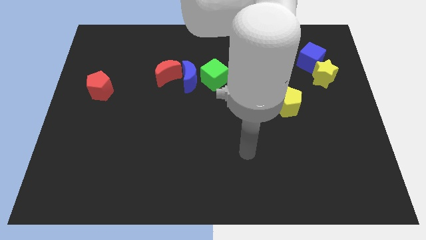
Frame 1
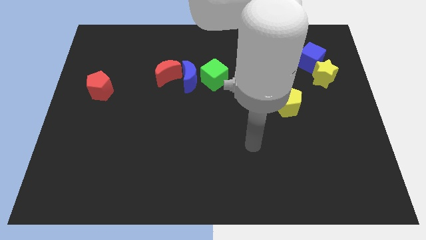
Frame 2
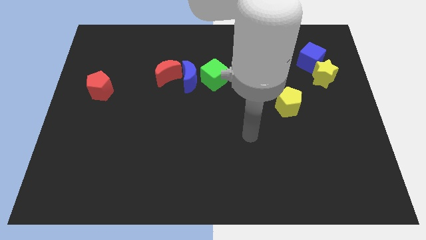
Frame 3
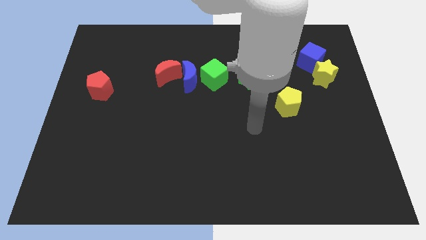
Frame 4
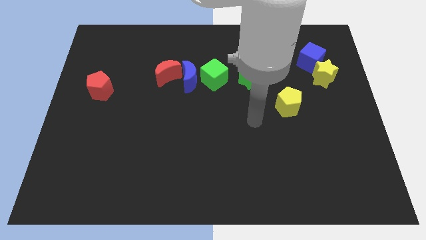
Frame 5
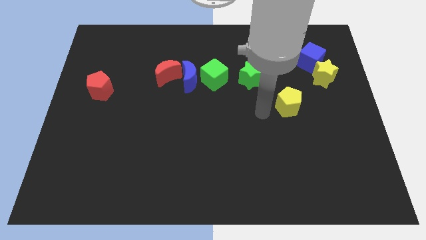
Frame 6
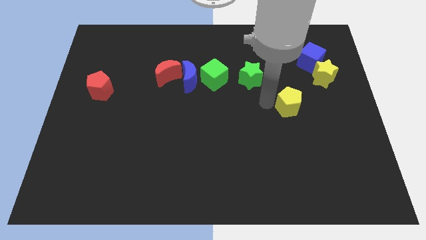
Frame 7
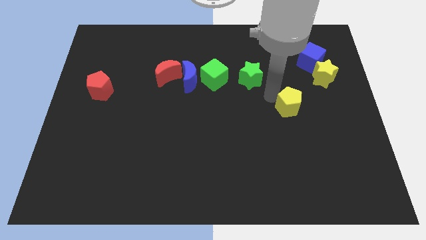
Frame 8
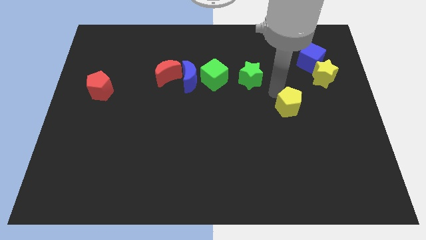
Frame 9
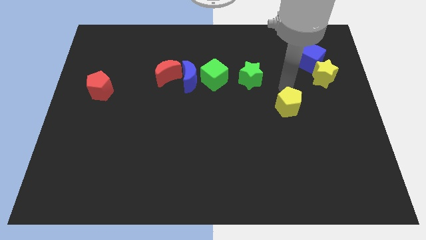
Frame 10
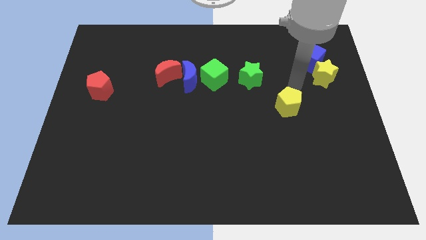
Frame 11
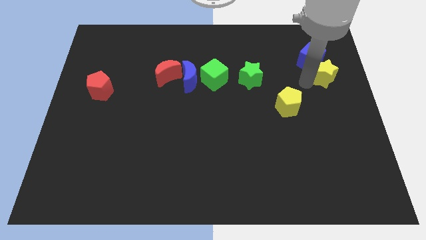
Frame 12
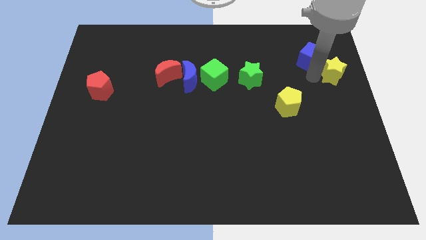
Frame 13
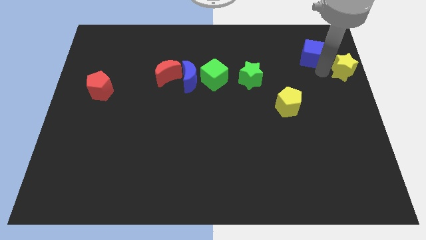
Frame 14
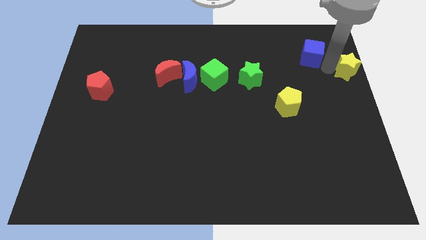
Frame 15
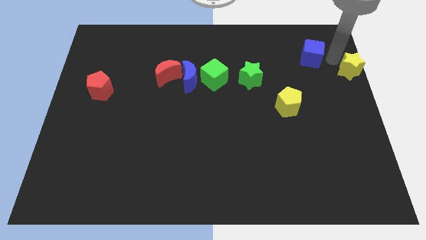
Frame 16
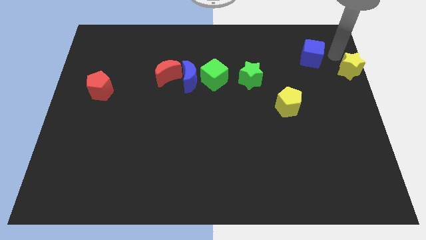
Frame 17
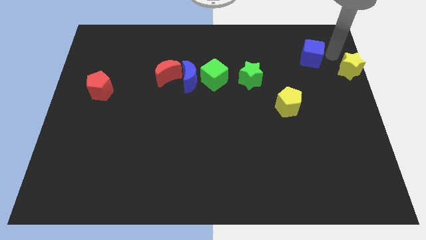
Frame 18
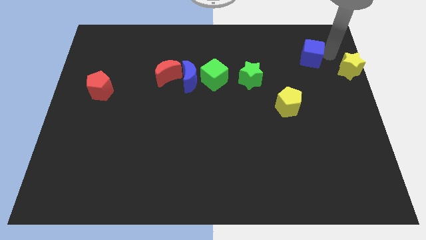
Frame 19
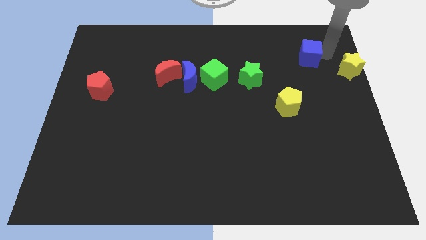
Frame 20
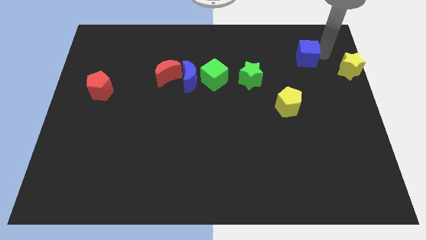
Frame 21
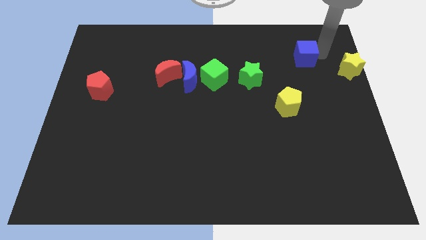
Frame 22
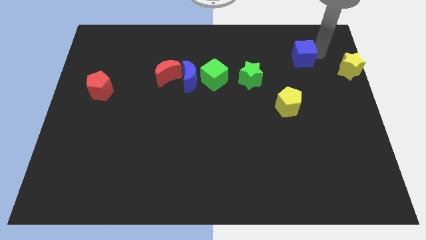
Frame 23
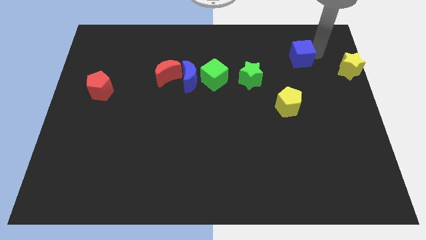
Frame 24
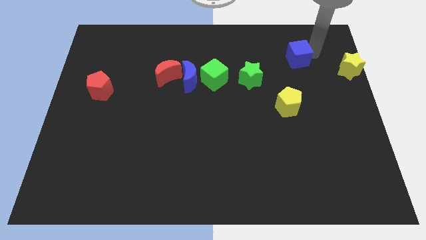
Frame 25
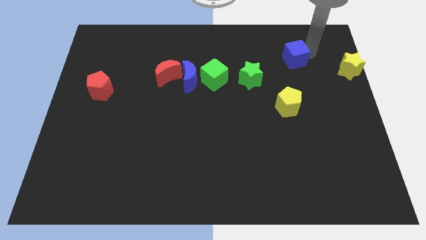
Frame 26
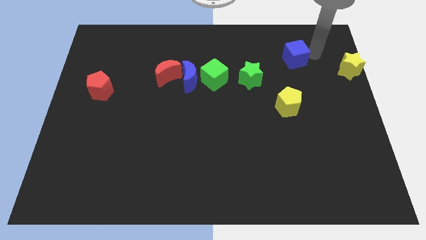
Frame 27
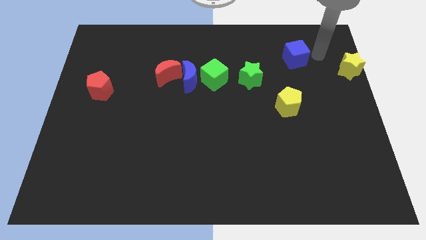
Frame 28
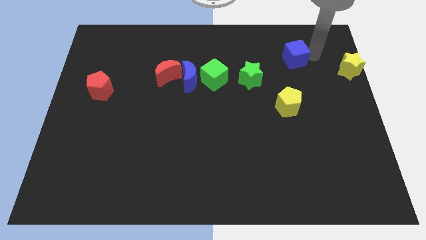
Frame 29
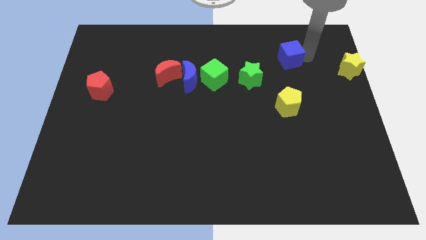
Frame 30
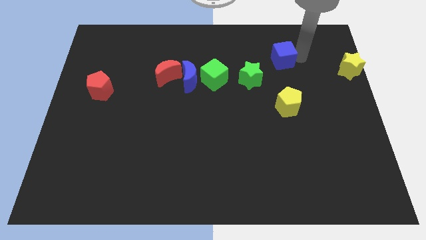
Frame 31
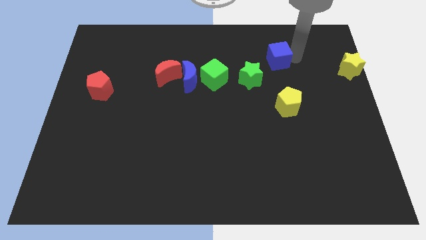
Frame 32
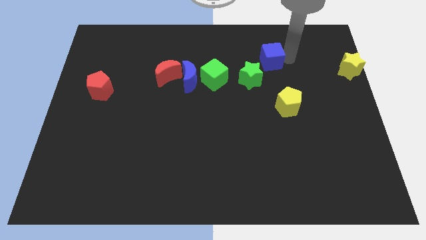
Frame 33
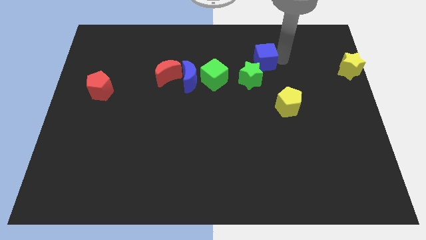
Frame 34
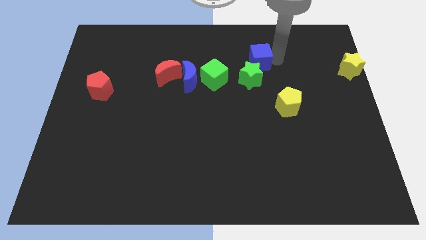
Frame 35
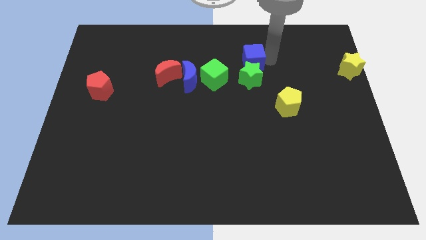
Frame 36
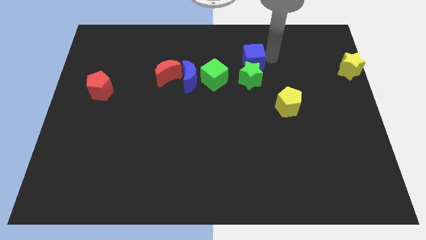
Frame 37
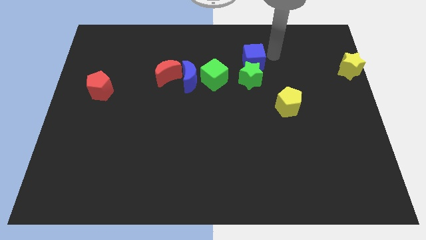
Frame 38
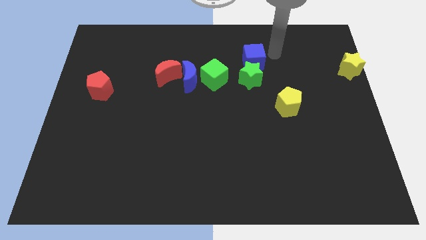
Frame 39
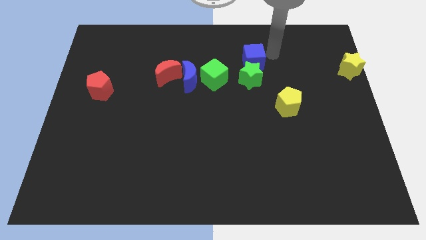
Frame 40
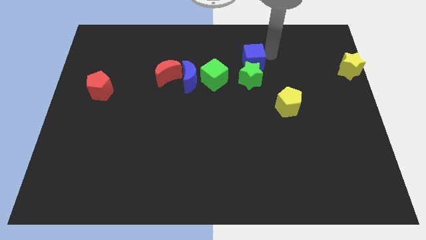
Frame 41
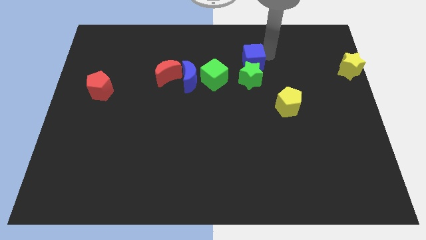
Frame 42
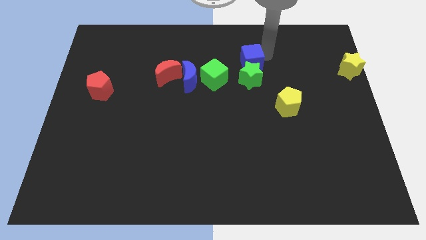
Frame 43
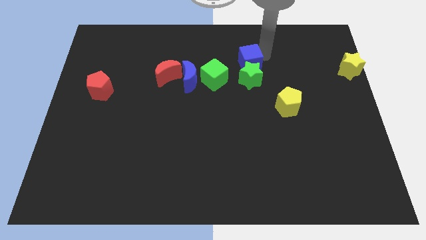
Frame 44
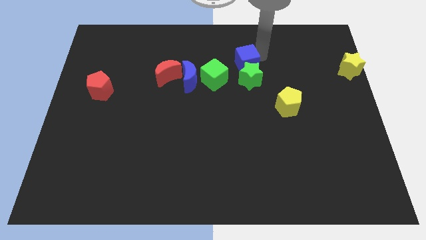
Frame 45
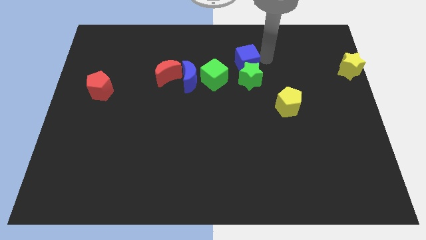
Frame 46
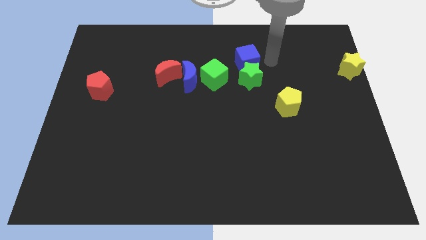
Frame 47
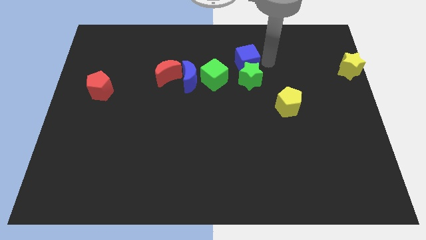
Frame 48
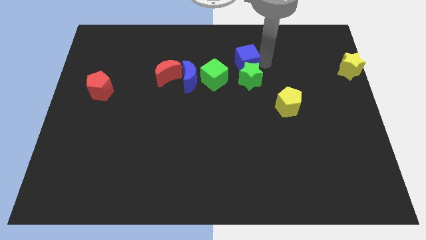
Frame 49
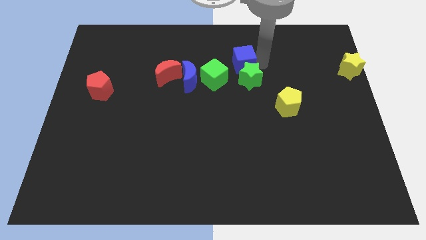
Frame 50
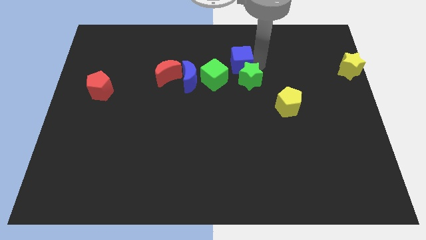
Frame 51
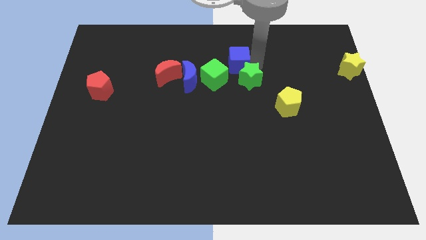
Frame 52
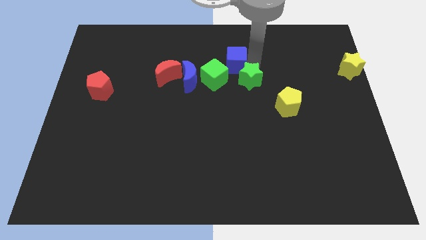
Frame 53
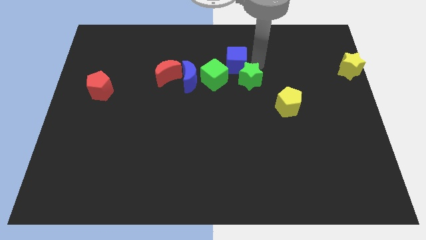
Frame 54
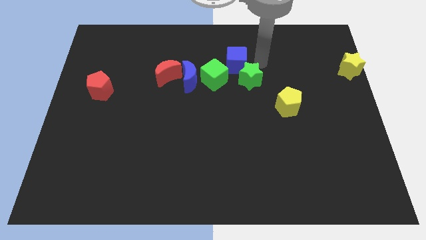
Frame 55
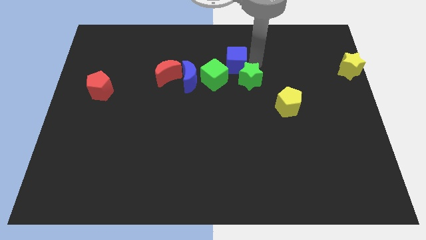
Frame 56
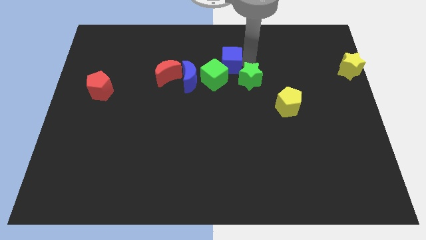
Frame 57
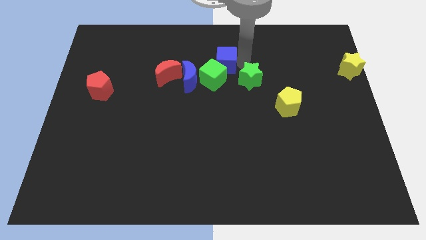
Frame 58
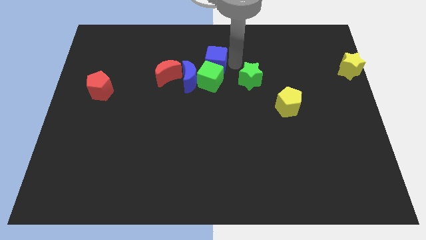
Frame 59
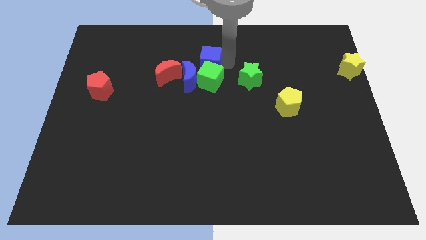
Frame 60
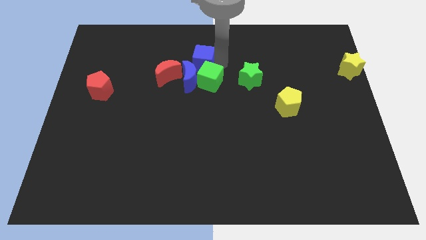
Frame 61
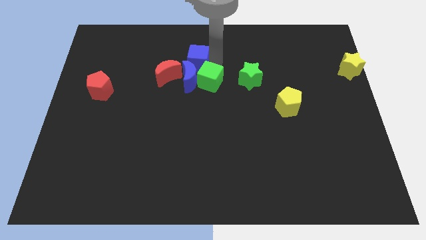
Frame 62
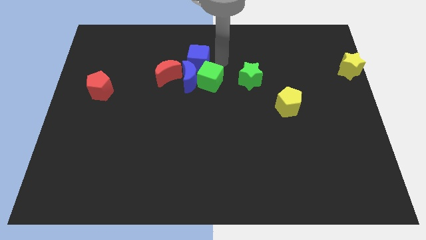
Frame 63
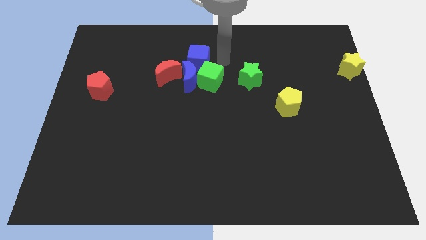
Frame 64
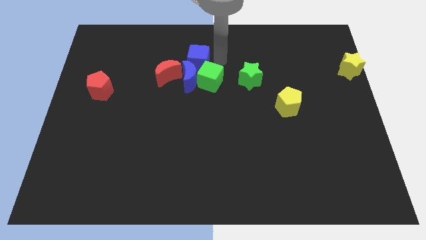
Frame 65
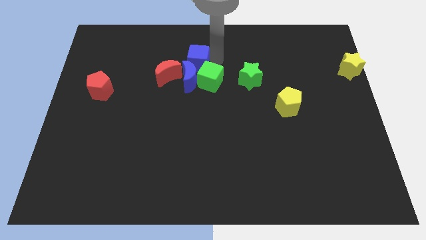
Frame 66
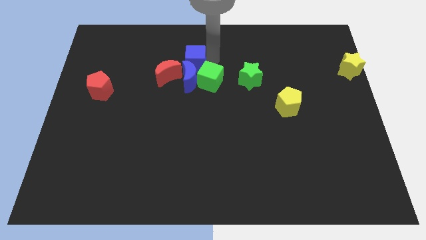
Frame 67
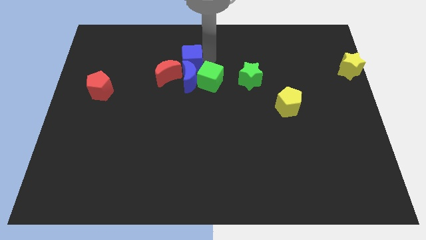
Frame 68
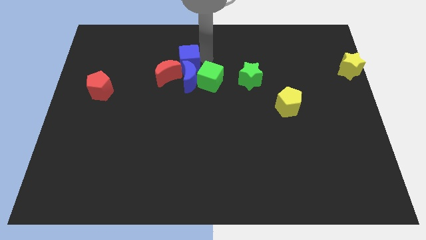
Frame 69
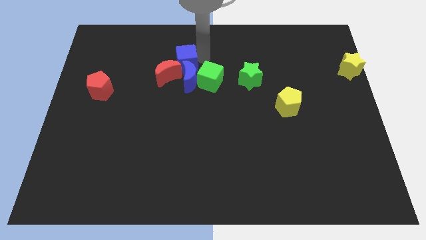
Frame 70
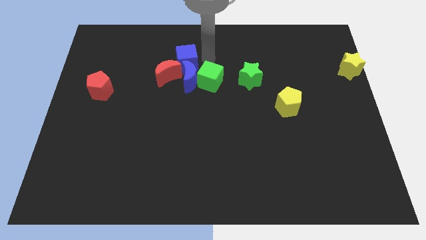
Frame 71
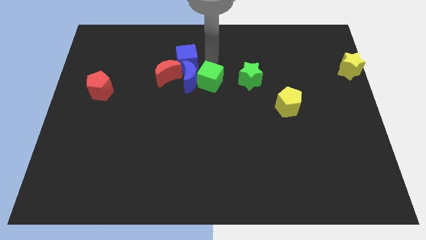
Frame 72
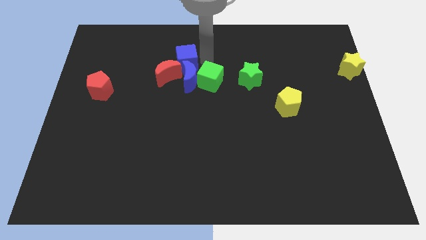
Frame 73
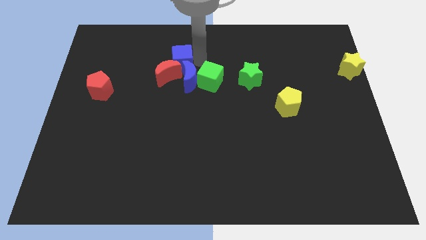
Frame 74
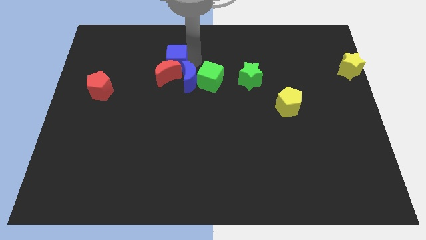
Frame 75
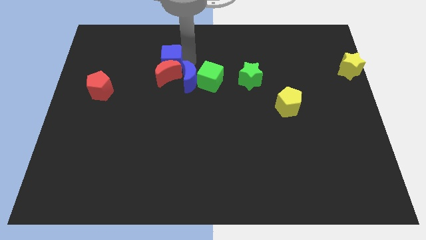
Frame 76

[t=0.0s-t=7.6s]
slide the blue cube to the top left side of the red moon
